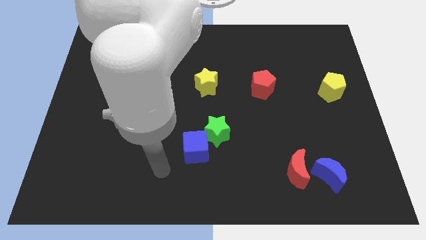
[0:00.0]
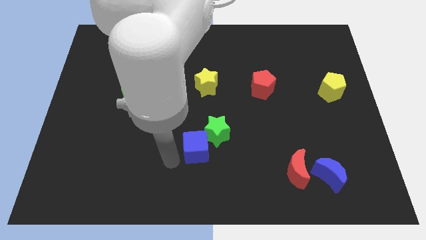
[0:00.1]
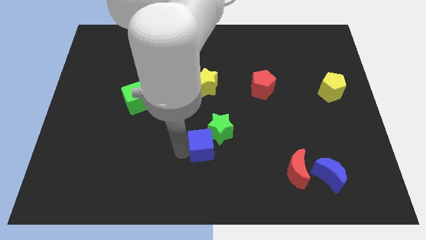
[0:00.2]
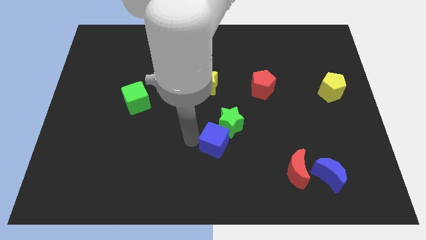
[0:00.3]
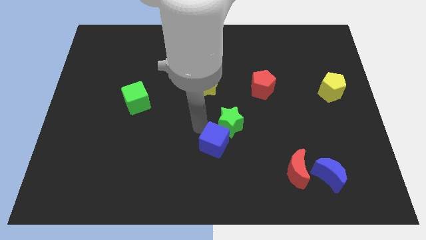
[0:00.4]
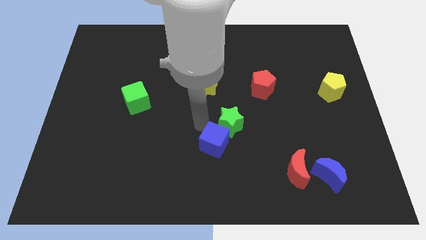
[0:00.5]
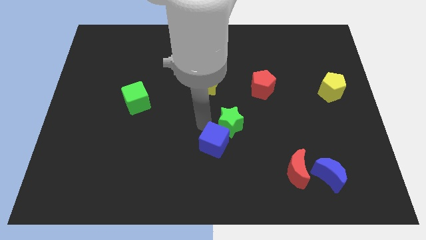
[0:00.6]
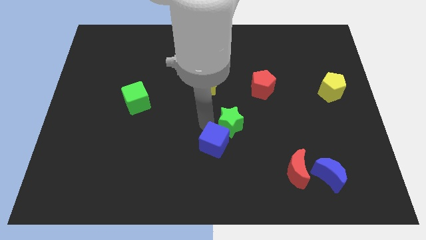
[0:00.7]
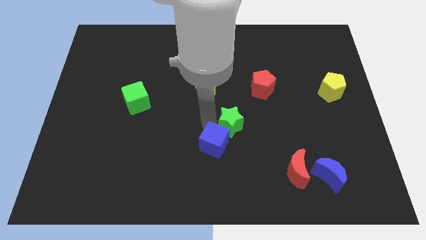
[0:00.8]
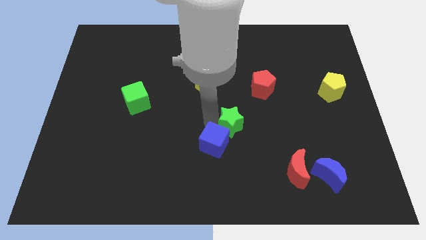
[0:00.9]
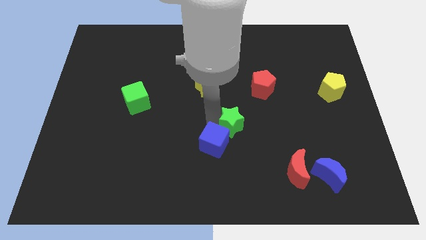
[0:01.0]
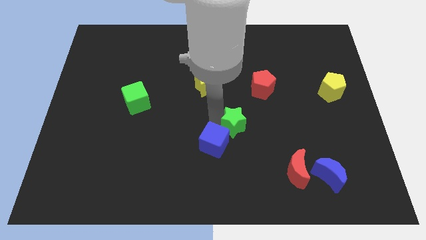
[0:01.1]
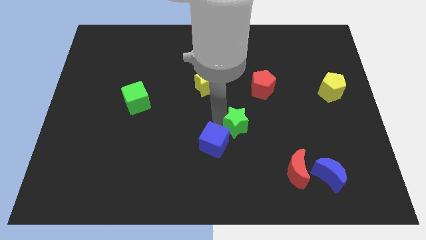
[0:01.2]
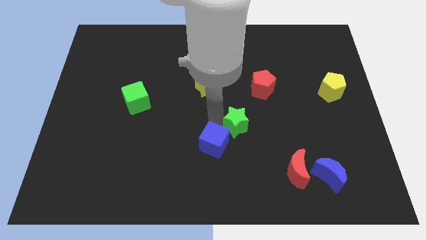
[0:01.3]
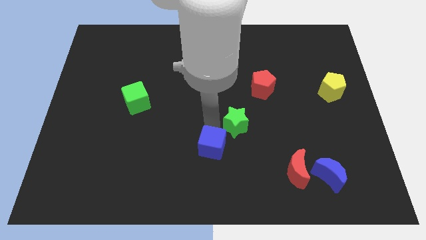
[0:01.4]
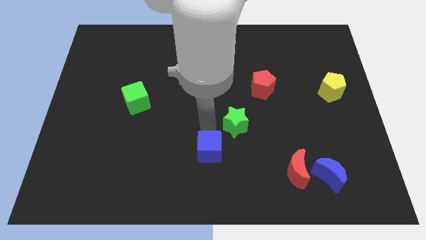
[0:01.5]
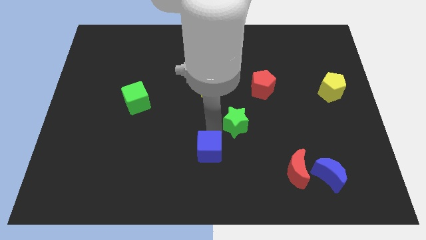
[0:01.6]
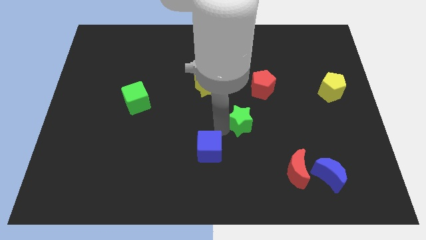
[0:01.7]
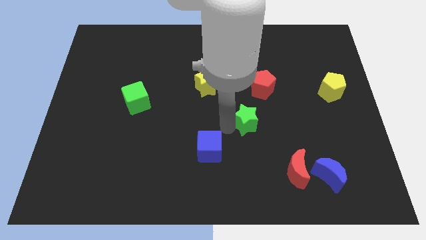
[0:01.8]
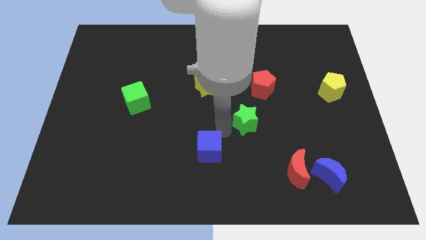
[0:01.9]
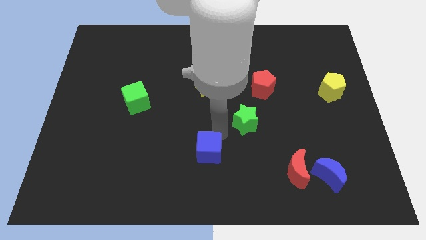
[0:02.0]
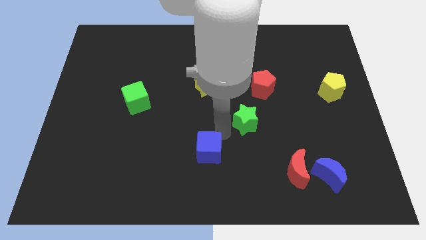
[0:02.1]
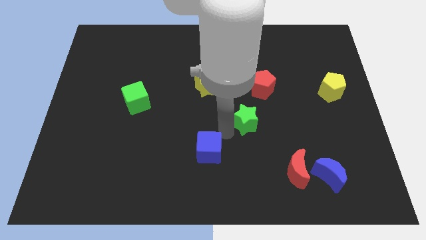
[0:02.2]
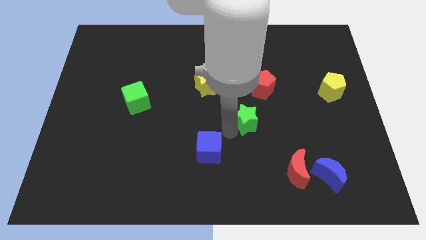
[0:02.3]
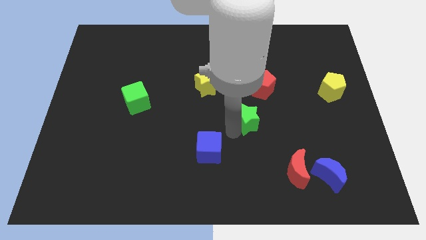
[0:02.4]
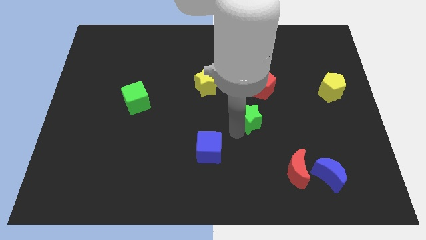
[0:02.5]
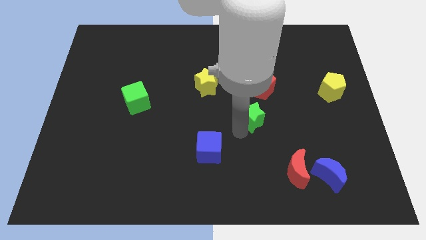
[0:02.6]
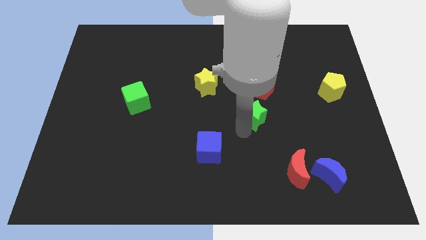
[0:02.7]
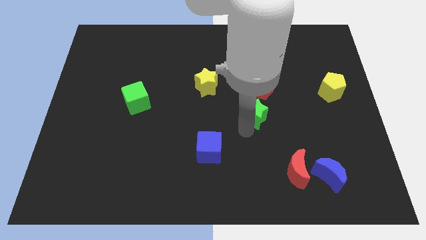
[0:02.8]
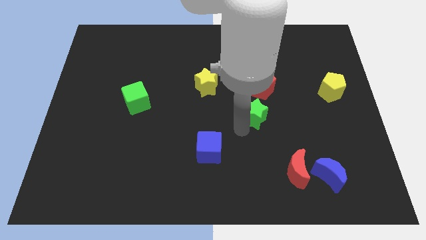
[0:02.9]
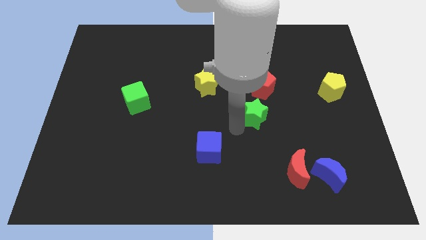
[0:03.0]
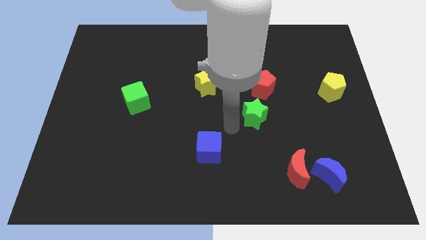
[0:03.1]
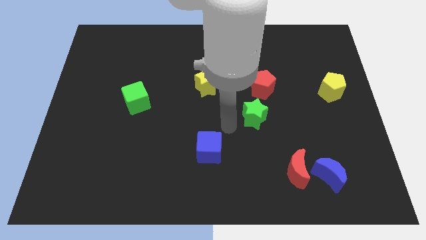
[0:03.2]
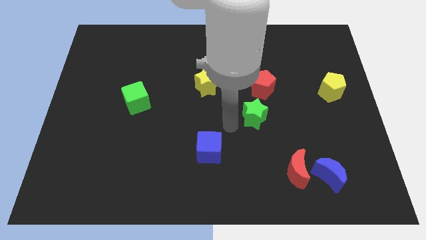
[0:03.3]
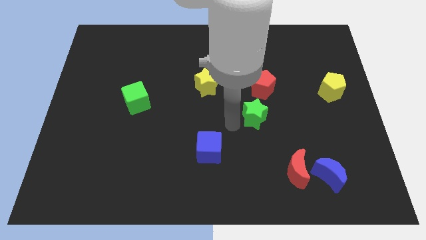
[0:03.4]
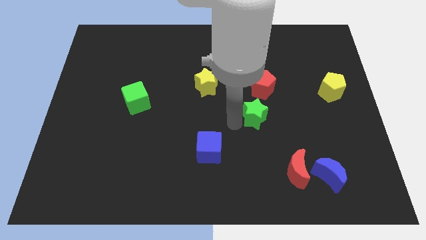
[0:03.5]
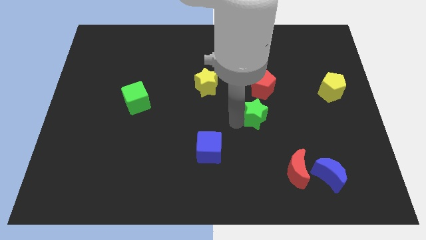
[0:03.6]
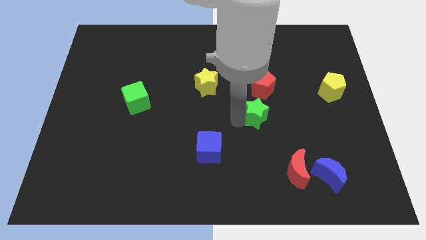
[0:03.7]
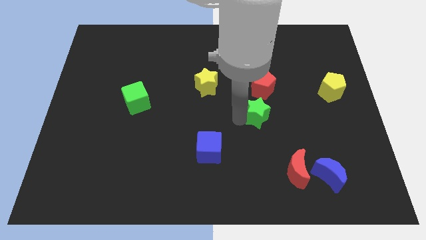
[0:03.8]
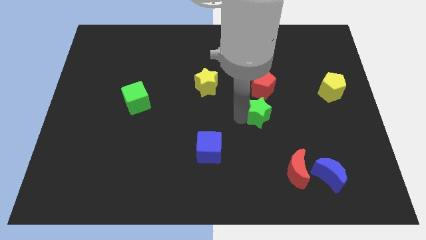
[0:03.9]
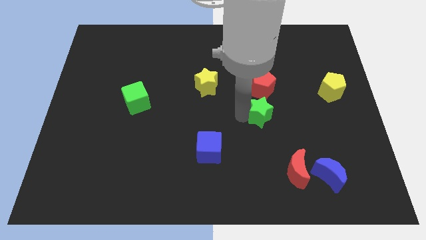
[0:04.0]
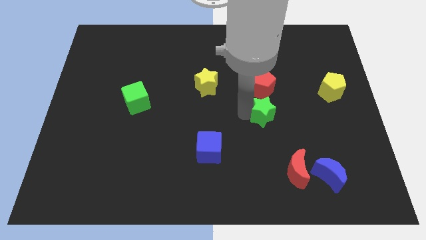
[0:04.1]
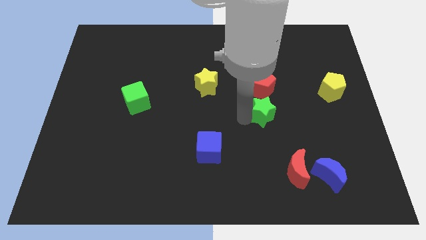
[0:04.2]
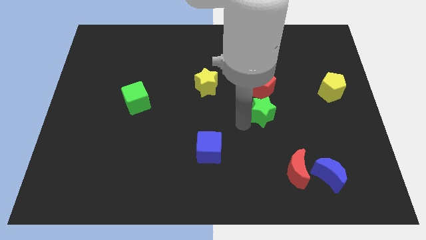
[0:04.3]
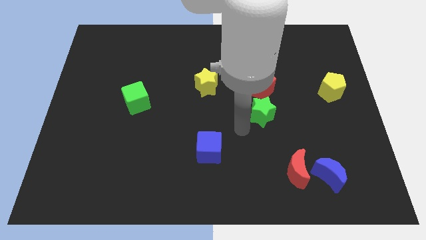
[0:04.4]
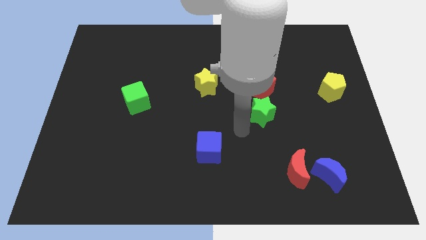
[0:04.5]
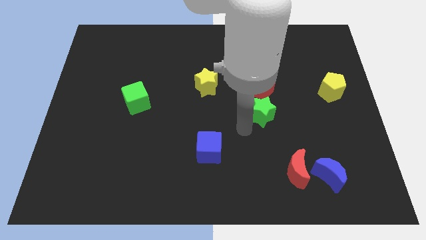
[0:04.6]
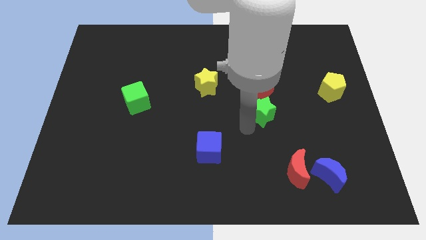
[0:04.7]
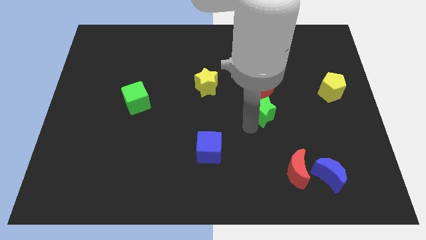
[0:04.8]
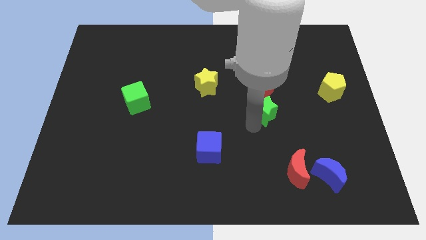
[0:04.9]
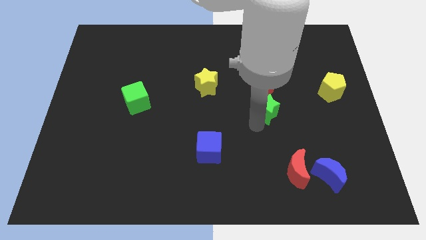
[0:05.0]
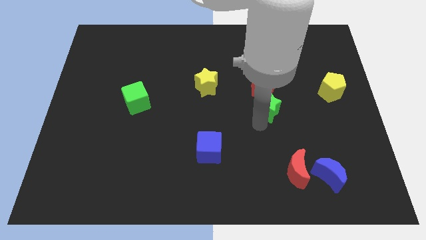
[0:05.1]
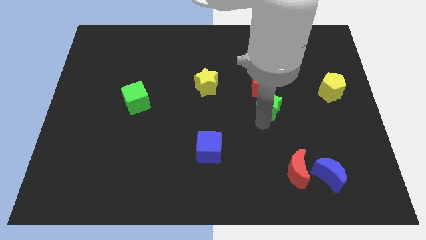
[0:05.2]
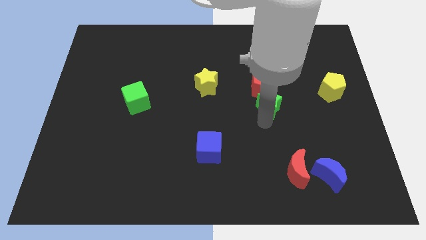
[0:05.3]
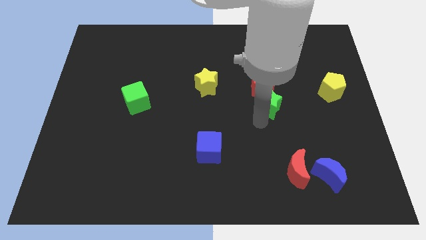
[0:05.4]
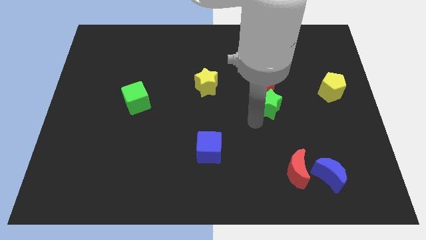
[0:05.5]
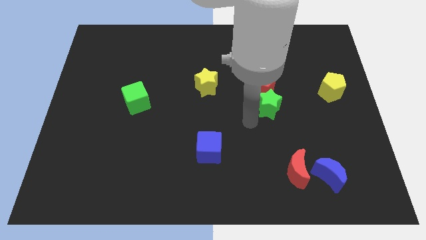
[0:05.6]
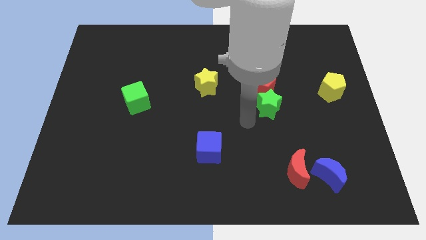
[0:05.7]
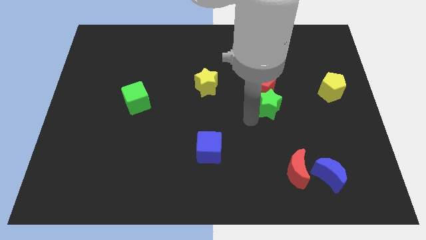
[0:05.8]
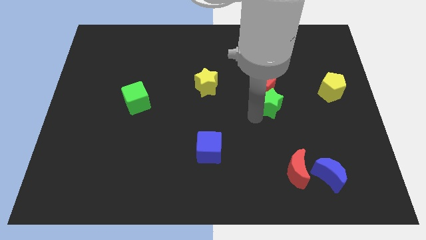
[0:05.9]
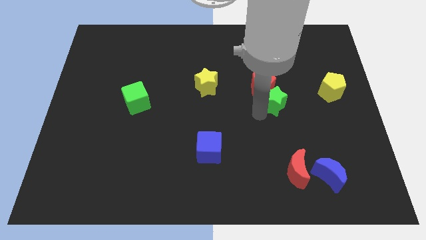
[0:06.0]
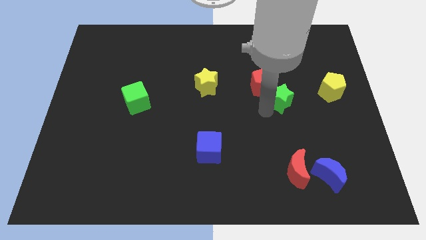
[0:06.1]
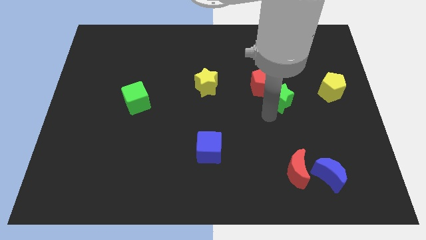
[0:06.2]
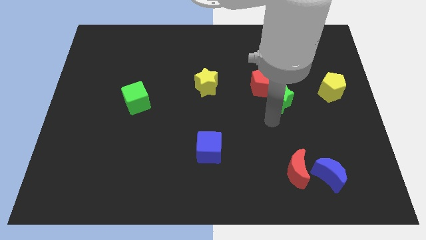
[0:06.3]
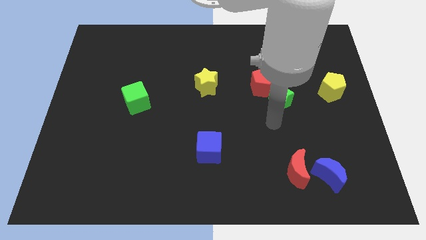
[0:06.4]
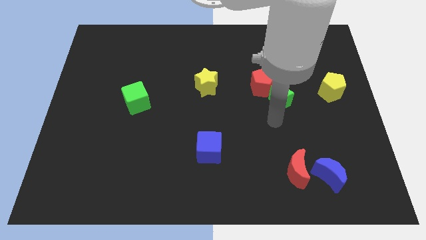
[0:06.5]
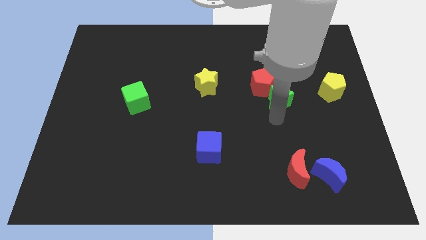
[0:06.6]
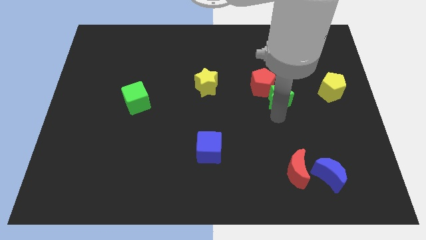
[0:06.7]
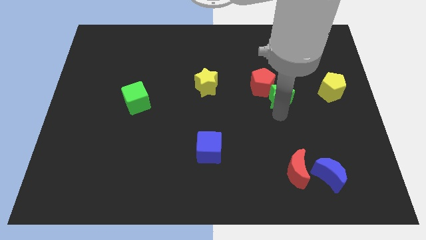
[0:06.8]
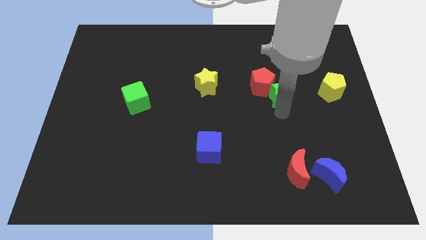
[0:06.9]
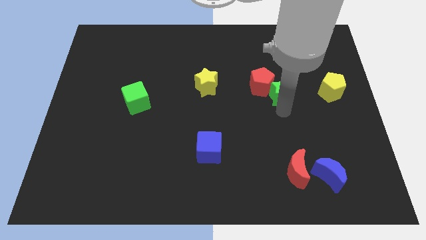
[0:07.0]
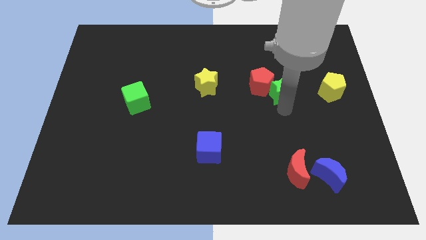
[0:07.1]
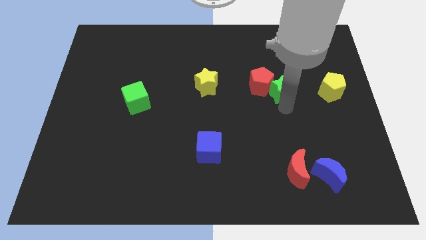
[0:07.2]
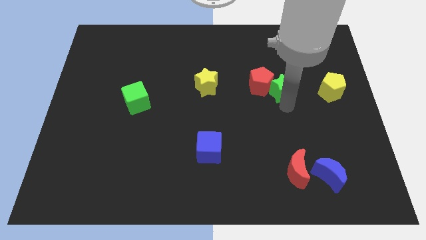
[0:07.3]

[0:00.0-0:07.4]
push the green star up and right

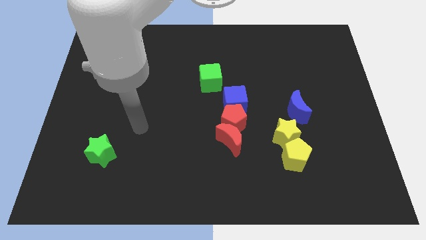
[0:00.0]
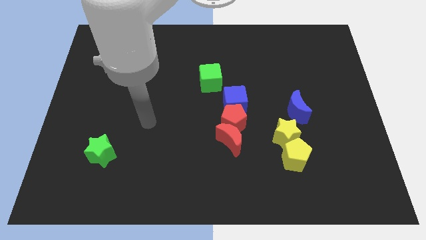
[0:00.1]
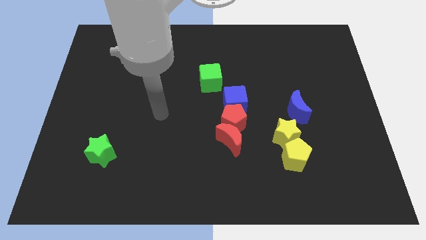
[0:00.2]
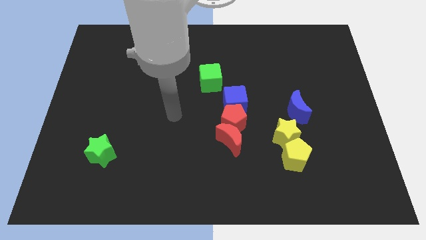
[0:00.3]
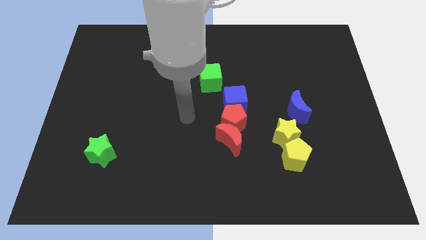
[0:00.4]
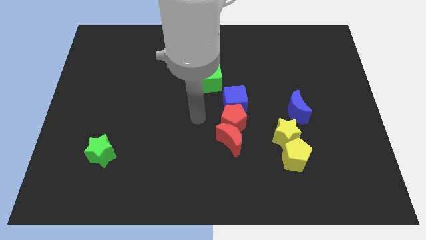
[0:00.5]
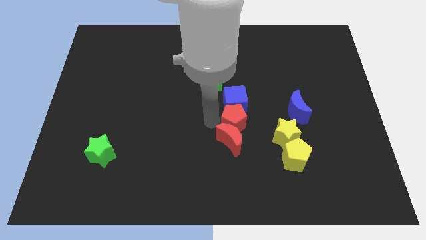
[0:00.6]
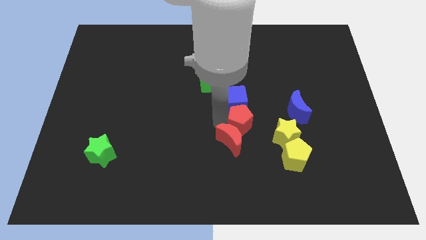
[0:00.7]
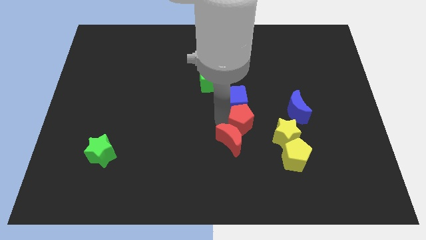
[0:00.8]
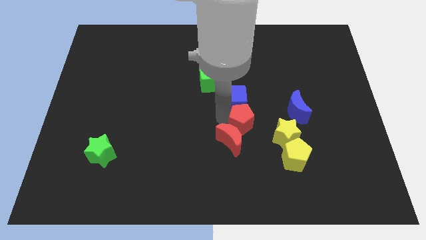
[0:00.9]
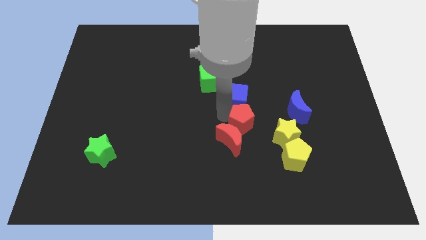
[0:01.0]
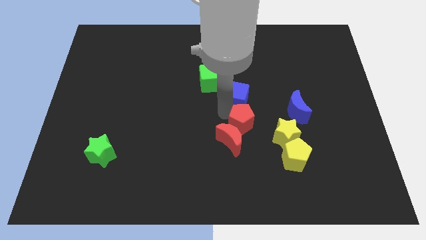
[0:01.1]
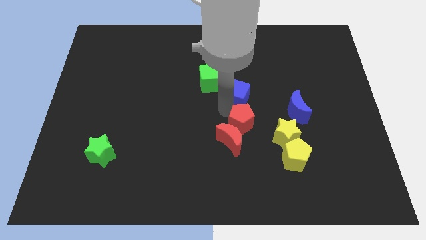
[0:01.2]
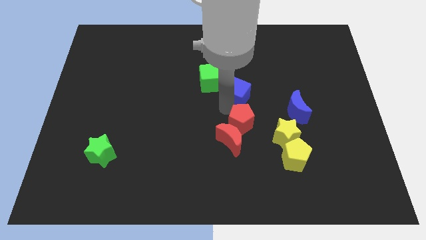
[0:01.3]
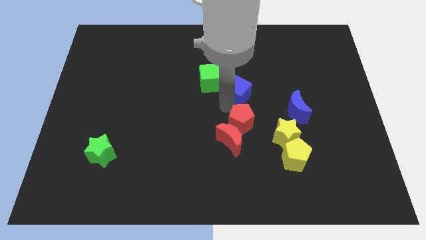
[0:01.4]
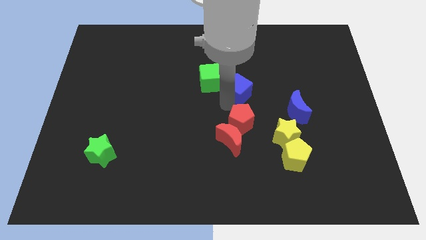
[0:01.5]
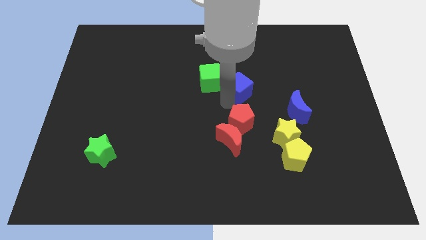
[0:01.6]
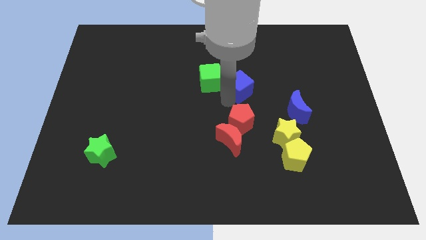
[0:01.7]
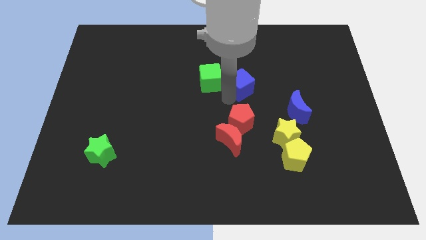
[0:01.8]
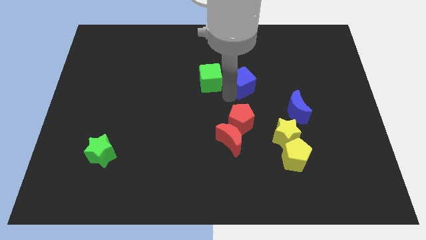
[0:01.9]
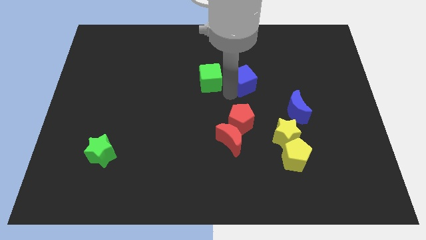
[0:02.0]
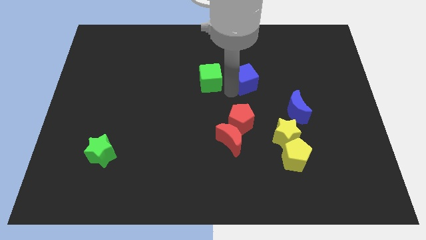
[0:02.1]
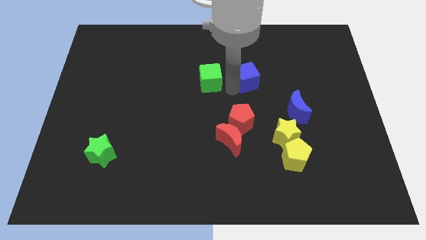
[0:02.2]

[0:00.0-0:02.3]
move the blue cube up and then to the right a little
